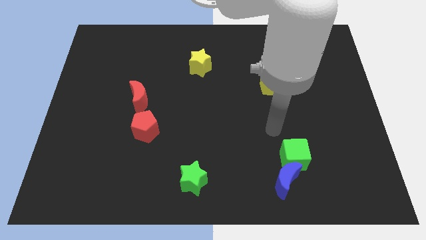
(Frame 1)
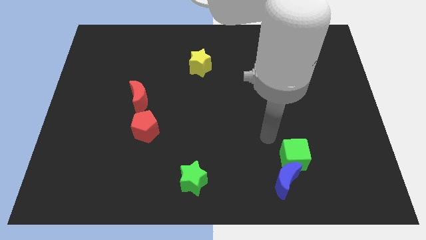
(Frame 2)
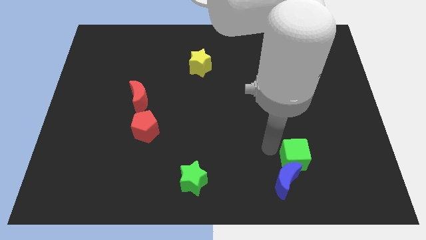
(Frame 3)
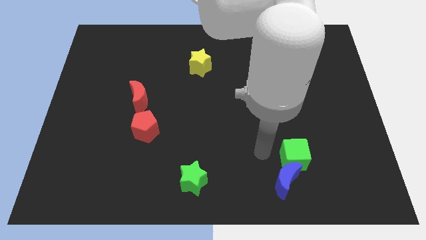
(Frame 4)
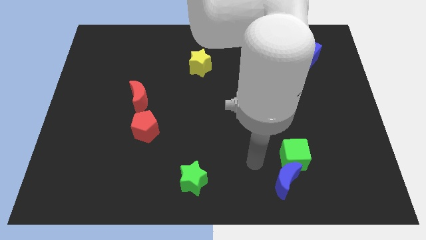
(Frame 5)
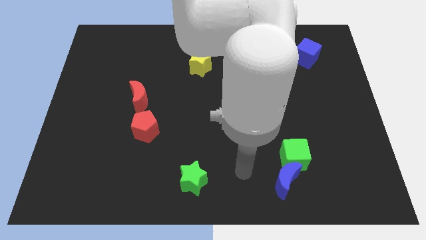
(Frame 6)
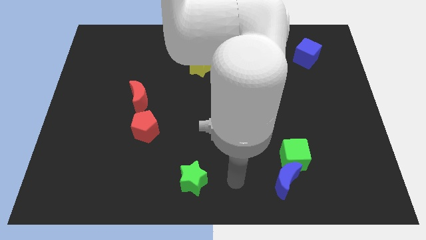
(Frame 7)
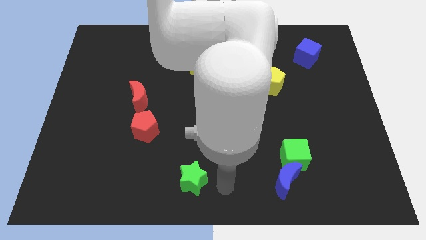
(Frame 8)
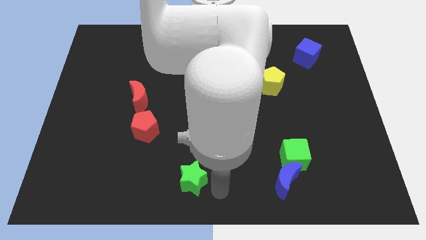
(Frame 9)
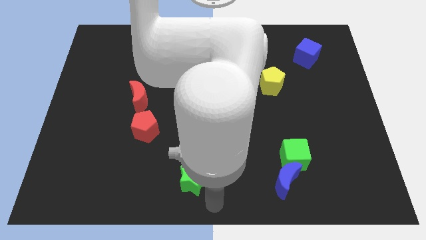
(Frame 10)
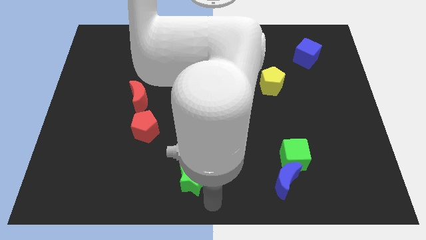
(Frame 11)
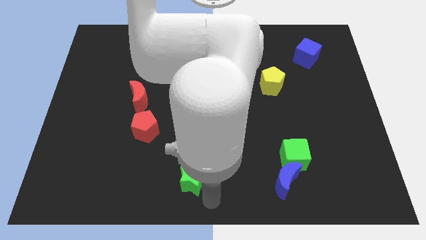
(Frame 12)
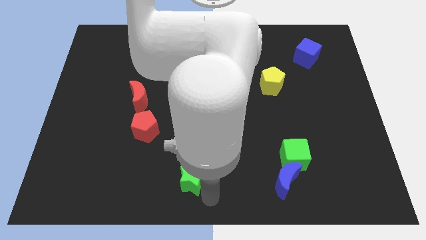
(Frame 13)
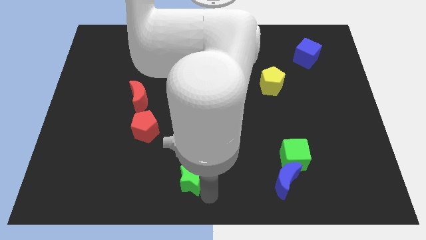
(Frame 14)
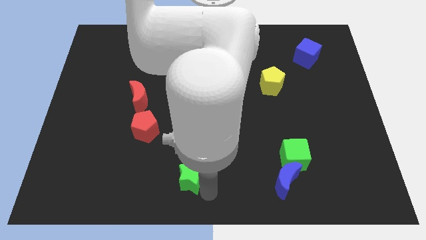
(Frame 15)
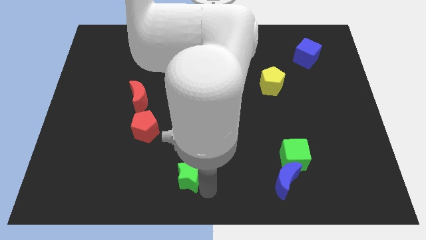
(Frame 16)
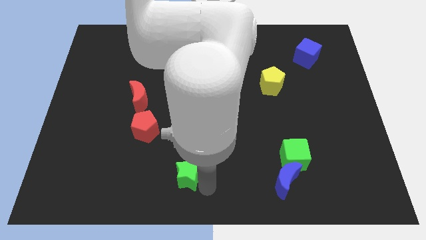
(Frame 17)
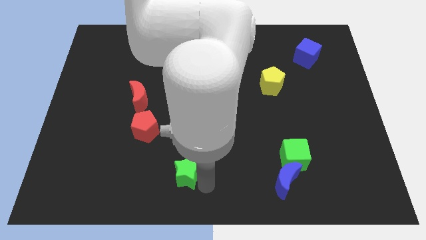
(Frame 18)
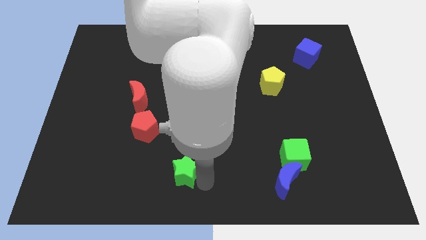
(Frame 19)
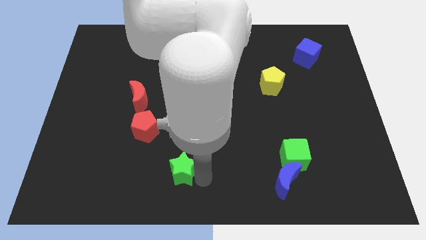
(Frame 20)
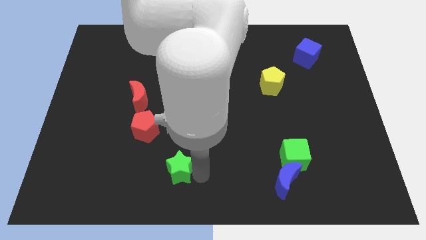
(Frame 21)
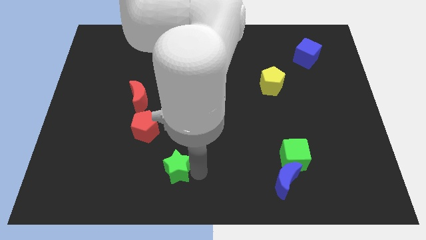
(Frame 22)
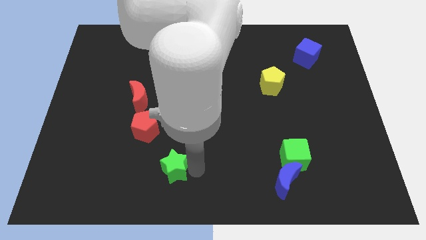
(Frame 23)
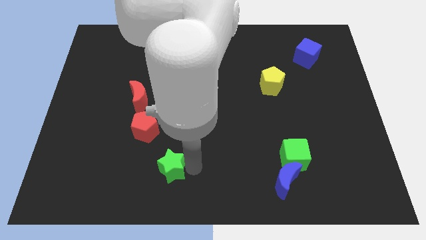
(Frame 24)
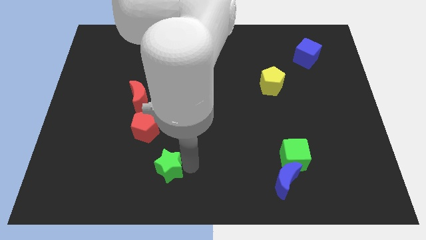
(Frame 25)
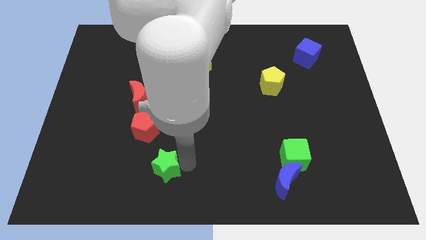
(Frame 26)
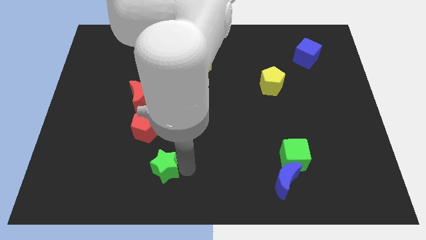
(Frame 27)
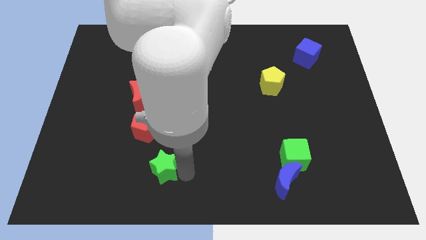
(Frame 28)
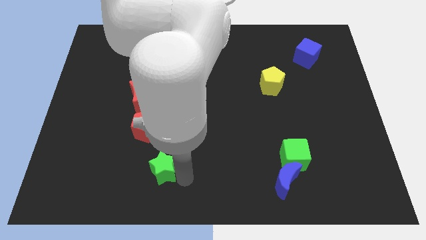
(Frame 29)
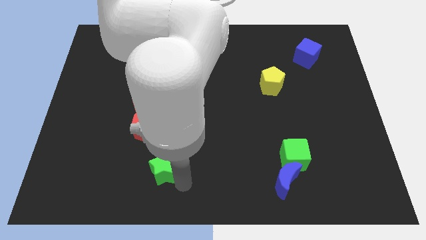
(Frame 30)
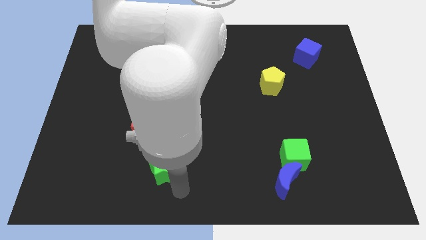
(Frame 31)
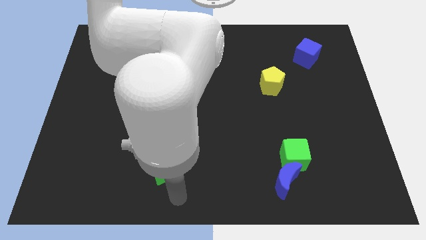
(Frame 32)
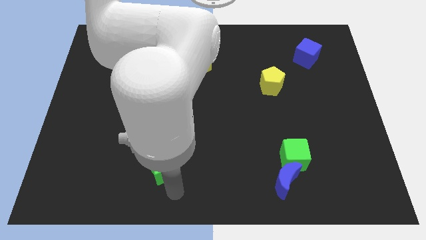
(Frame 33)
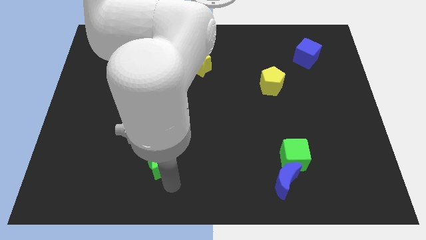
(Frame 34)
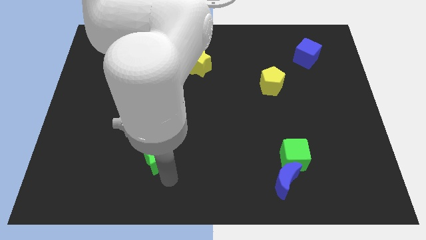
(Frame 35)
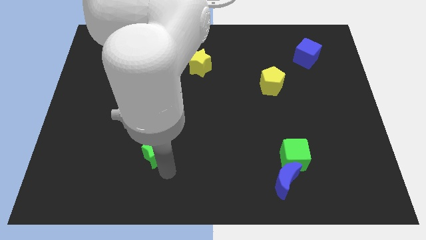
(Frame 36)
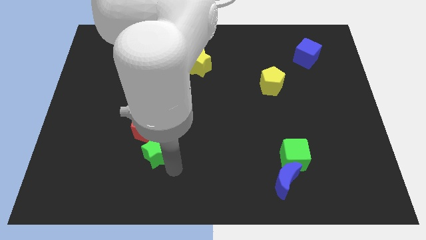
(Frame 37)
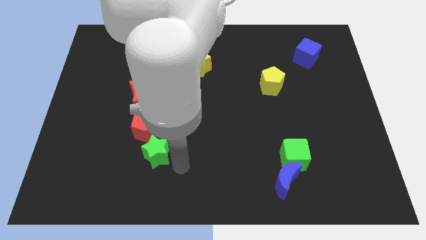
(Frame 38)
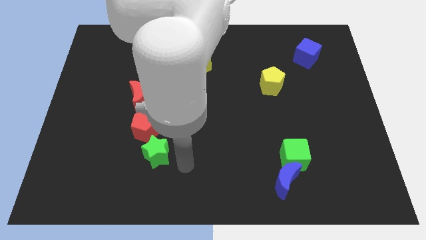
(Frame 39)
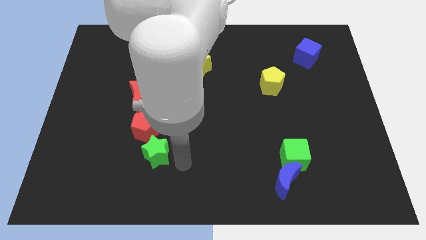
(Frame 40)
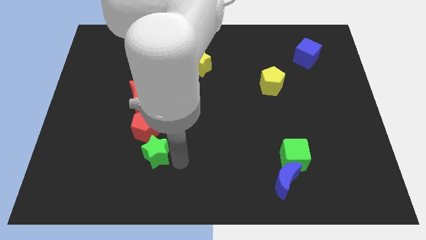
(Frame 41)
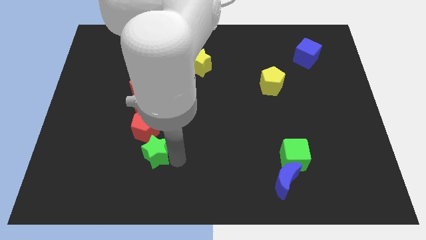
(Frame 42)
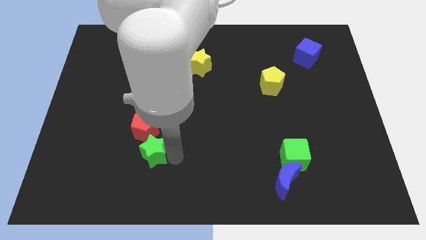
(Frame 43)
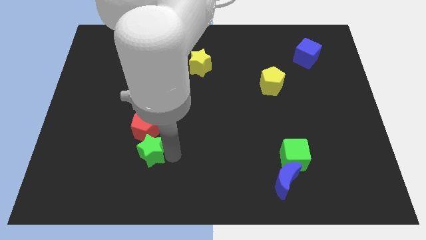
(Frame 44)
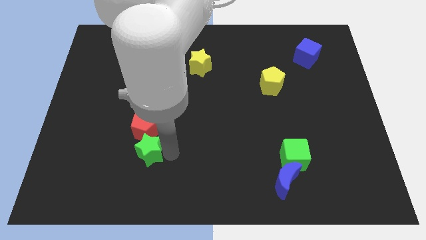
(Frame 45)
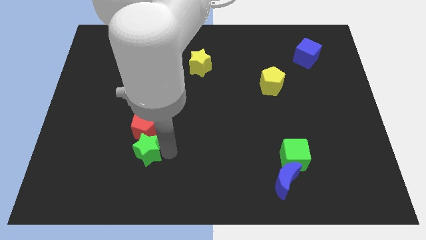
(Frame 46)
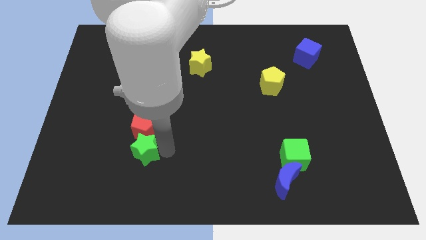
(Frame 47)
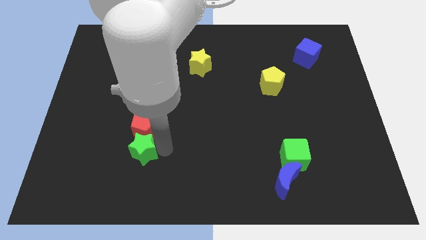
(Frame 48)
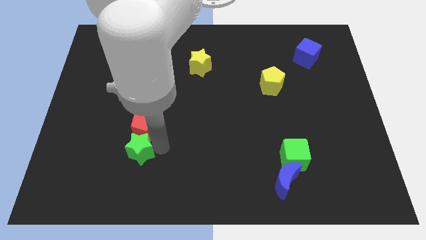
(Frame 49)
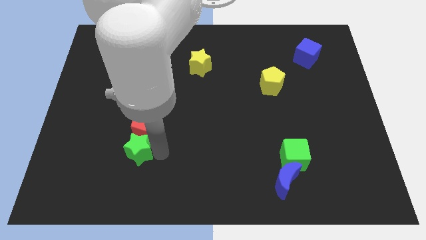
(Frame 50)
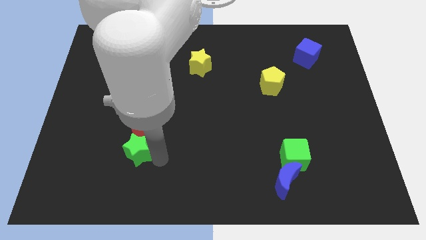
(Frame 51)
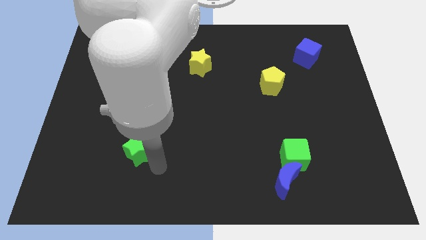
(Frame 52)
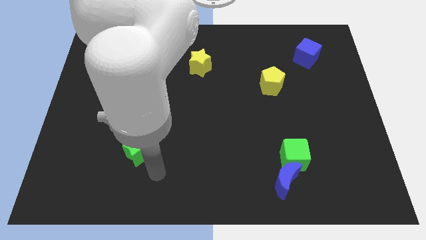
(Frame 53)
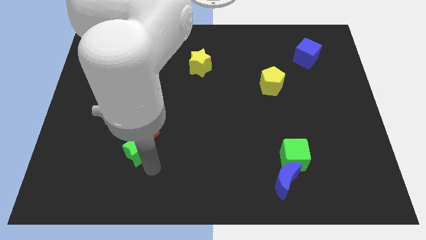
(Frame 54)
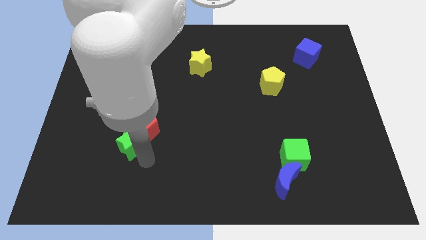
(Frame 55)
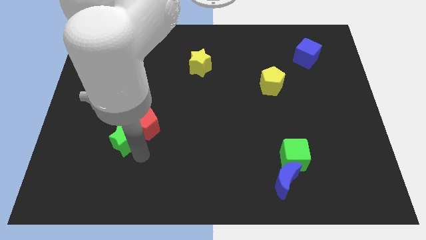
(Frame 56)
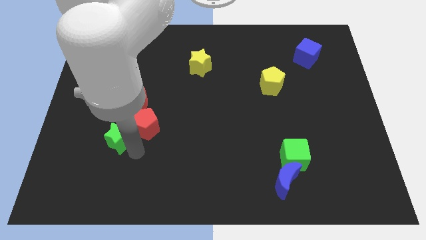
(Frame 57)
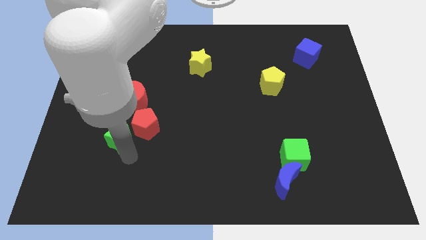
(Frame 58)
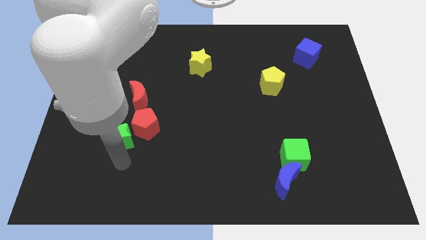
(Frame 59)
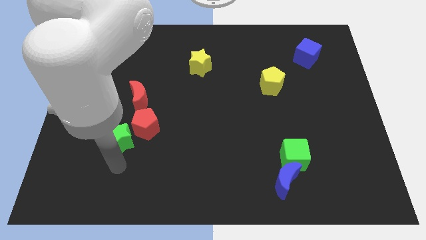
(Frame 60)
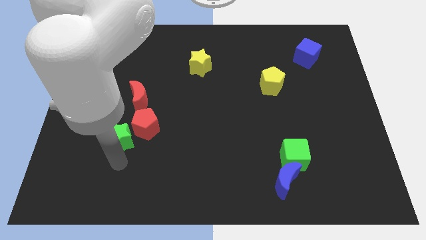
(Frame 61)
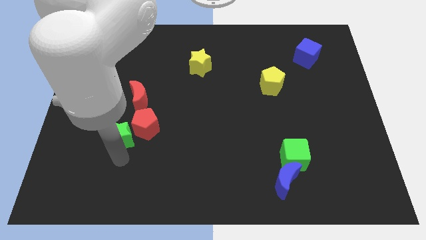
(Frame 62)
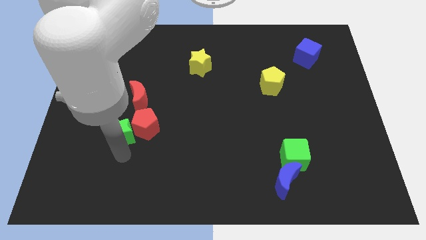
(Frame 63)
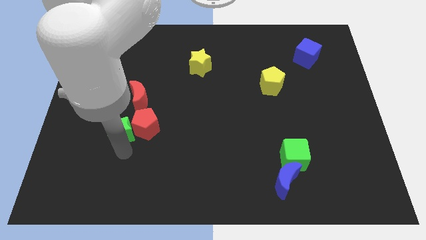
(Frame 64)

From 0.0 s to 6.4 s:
move the green star diagonally up and to the left of the red pentagon
